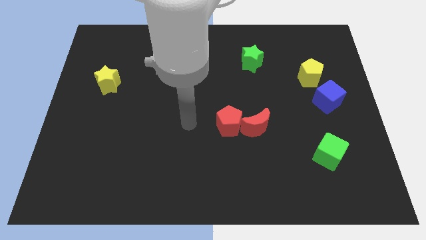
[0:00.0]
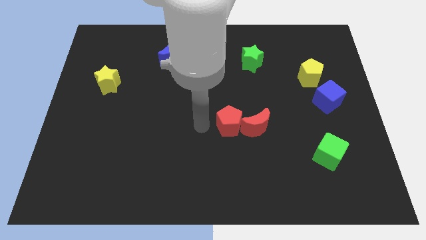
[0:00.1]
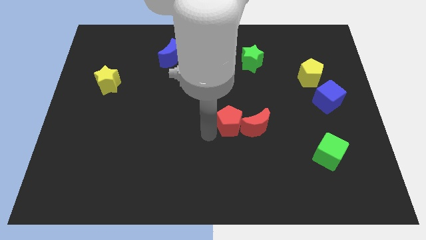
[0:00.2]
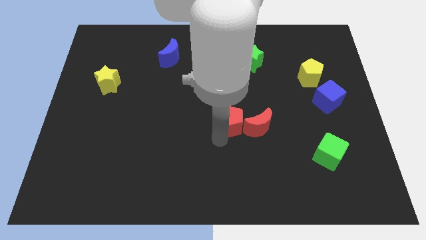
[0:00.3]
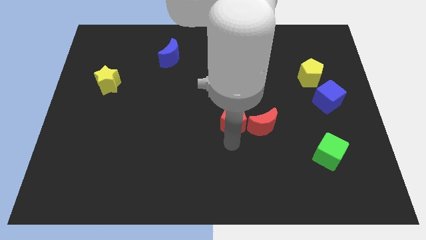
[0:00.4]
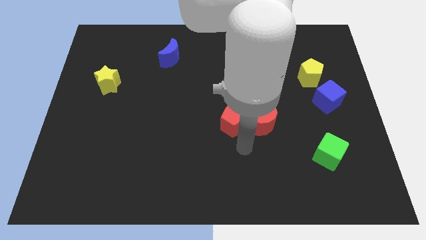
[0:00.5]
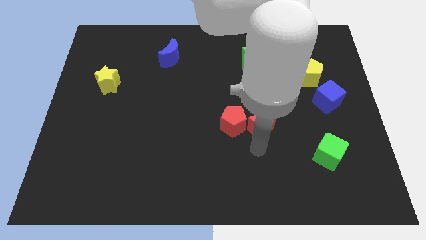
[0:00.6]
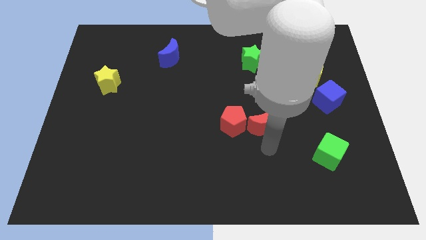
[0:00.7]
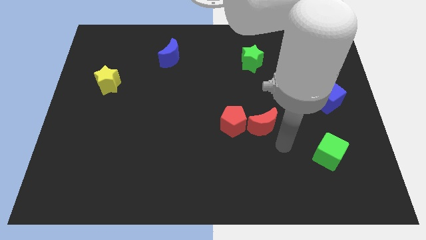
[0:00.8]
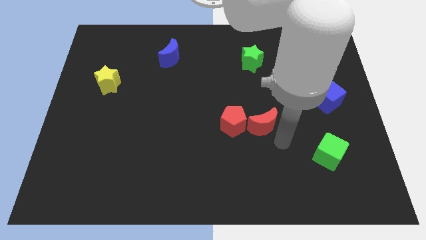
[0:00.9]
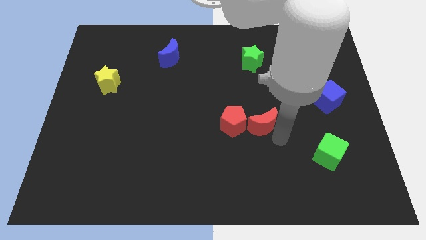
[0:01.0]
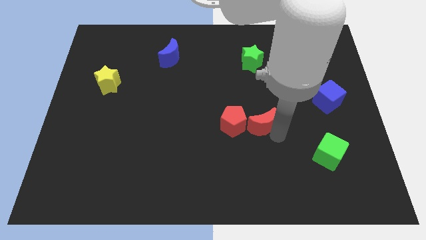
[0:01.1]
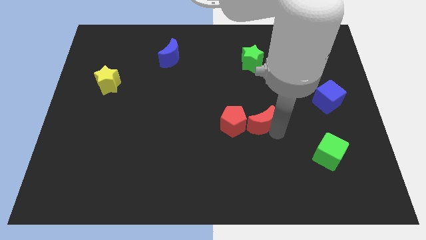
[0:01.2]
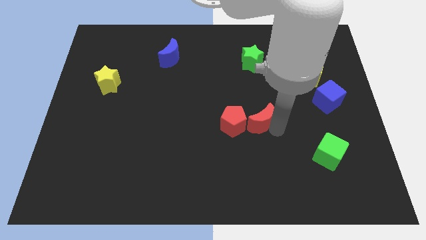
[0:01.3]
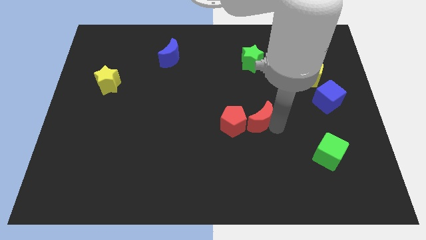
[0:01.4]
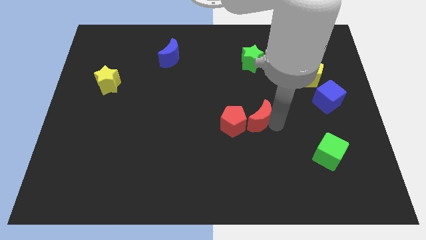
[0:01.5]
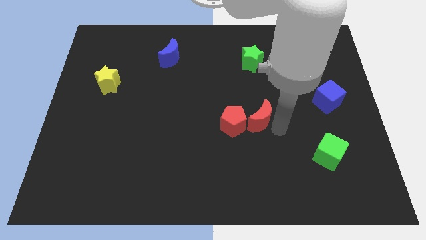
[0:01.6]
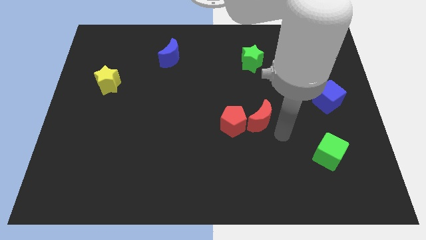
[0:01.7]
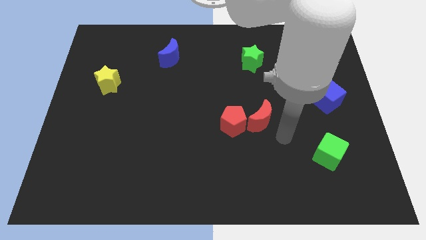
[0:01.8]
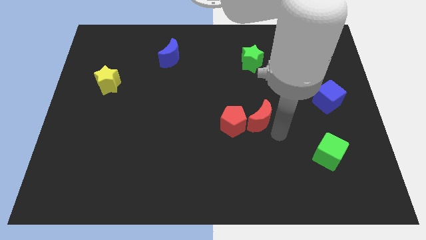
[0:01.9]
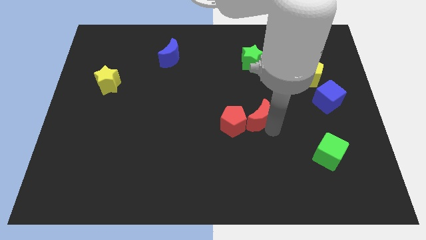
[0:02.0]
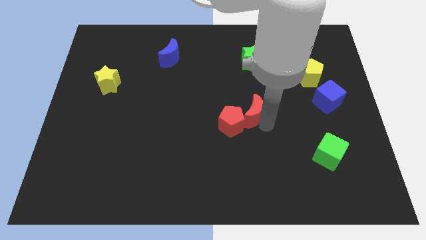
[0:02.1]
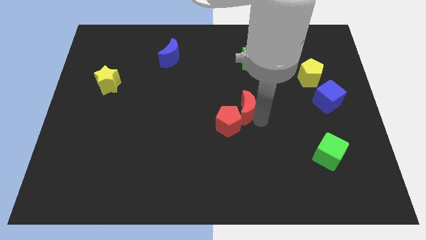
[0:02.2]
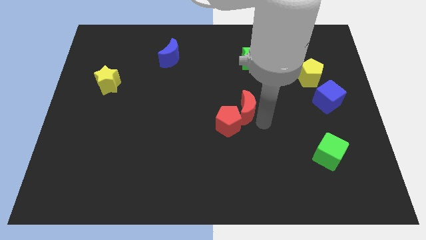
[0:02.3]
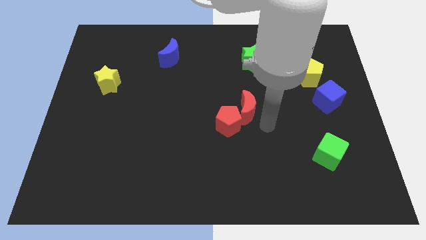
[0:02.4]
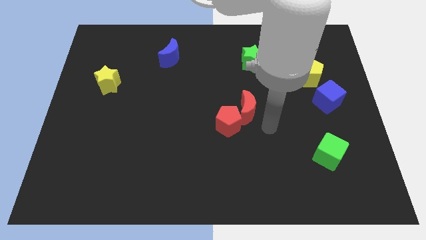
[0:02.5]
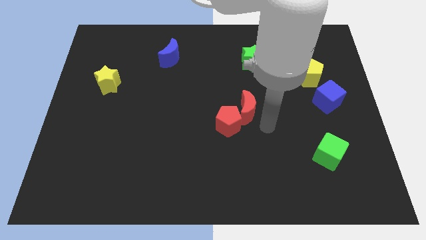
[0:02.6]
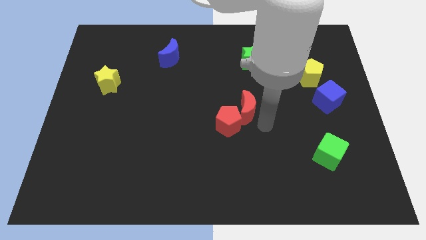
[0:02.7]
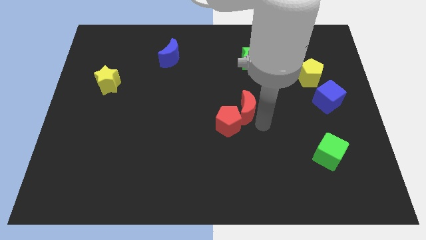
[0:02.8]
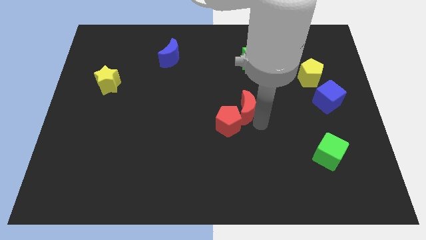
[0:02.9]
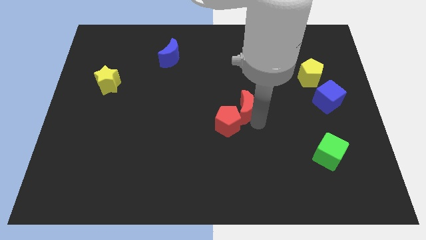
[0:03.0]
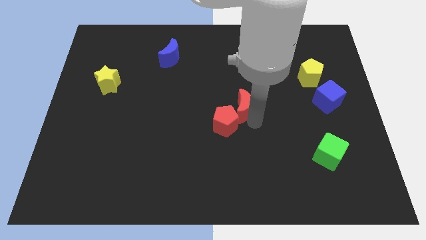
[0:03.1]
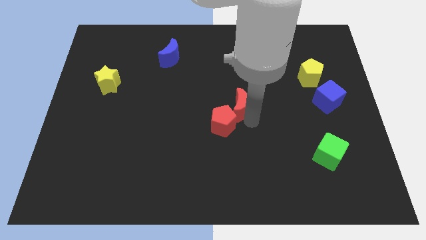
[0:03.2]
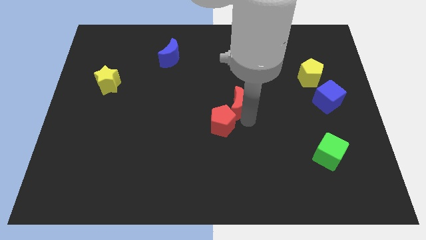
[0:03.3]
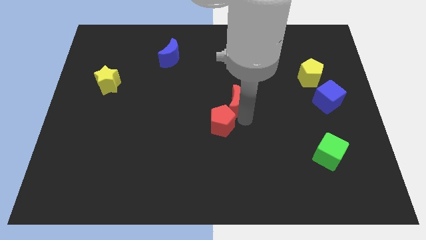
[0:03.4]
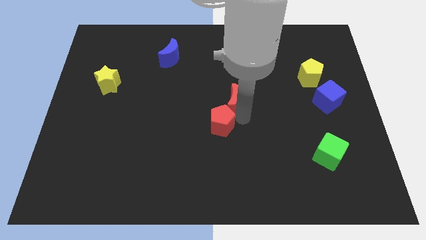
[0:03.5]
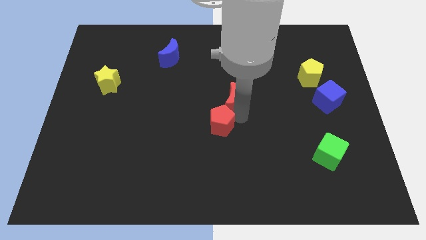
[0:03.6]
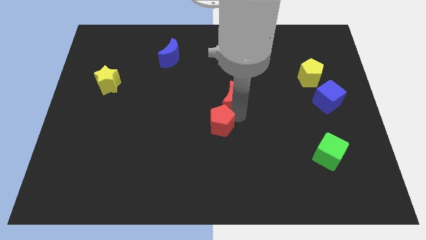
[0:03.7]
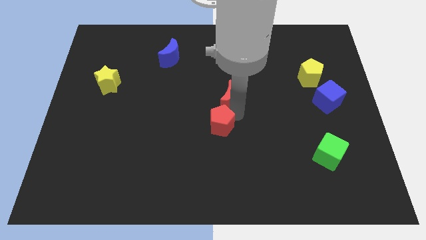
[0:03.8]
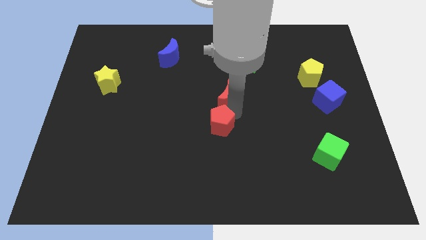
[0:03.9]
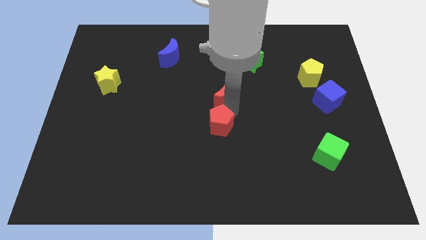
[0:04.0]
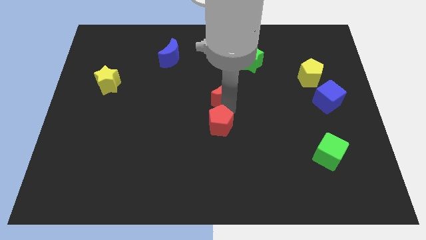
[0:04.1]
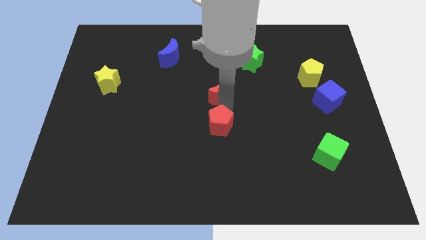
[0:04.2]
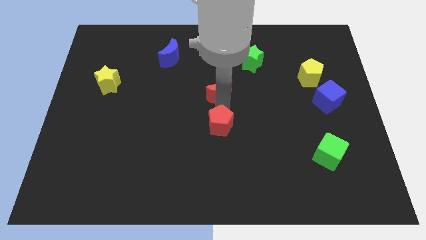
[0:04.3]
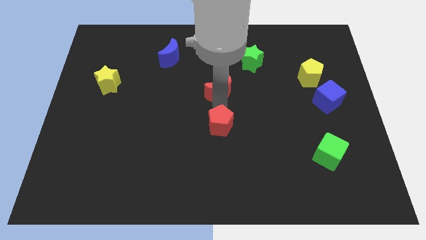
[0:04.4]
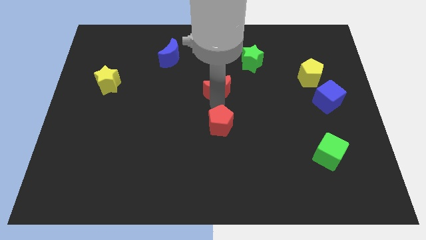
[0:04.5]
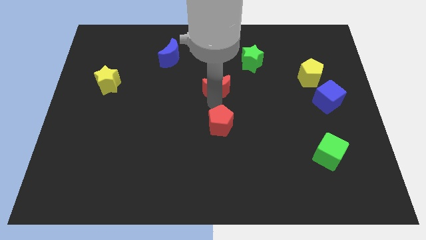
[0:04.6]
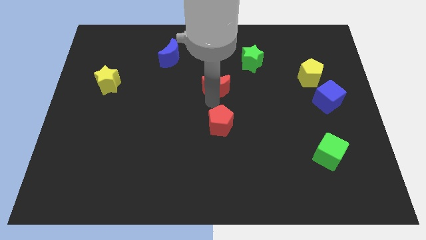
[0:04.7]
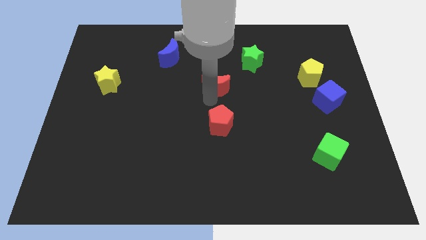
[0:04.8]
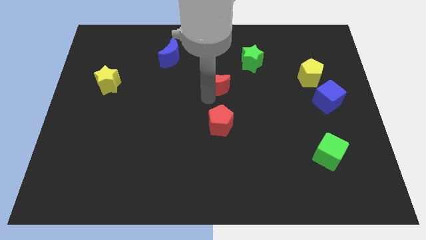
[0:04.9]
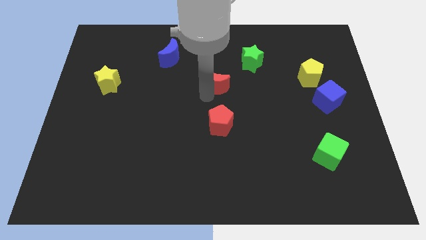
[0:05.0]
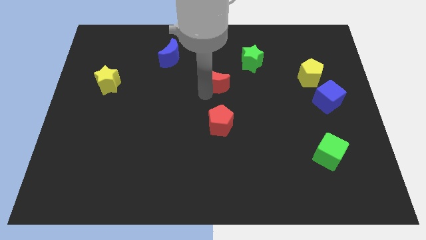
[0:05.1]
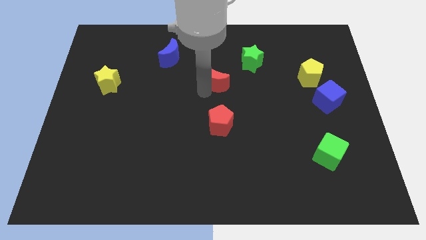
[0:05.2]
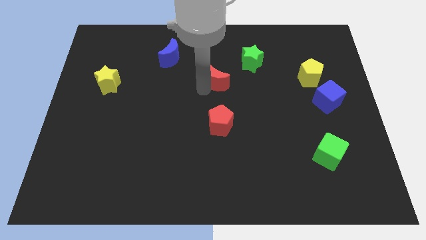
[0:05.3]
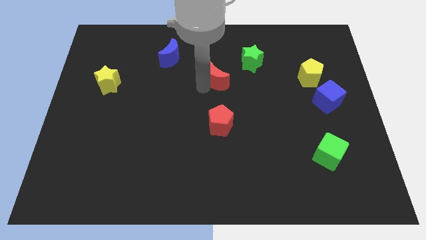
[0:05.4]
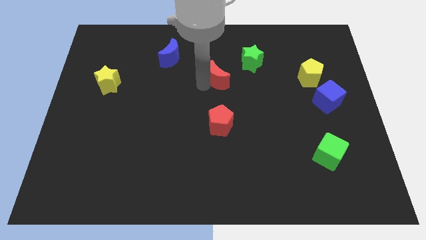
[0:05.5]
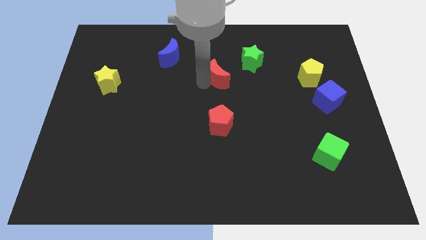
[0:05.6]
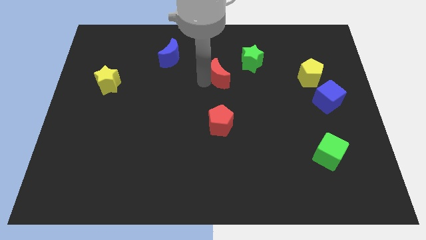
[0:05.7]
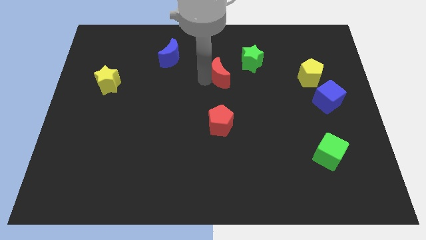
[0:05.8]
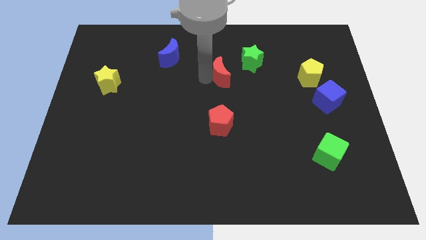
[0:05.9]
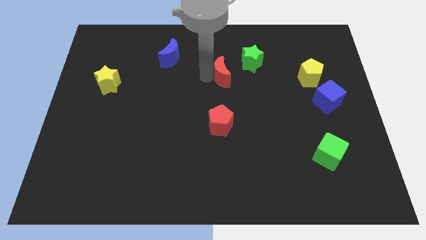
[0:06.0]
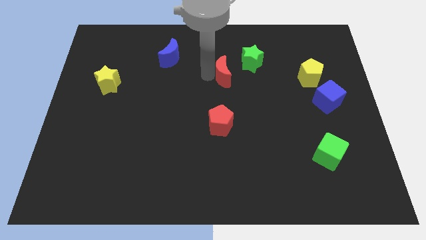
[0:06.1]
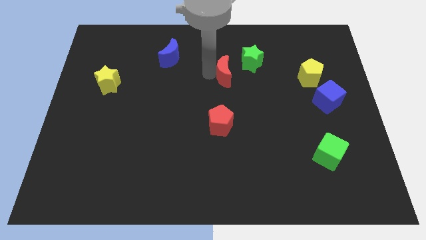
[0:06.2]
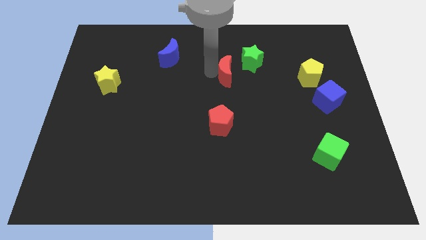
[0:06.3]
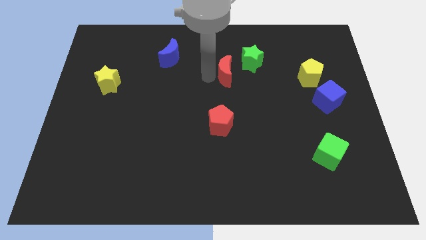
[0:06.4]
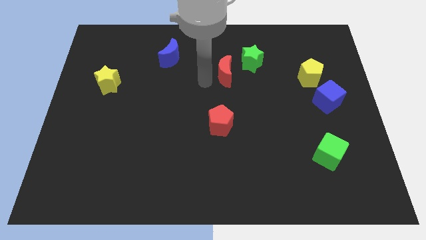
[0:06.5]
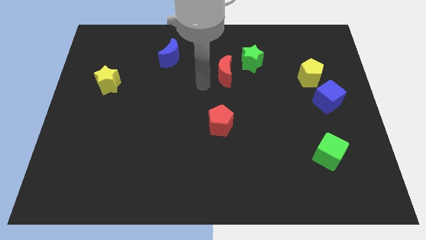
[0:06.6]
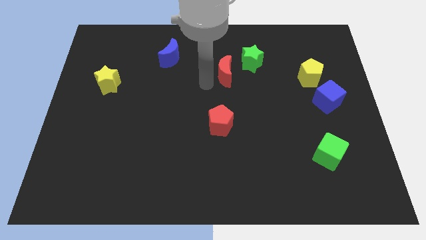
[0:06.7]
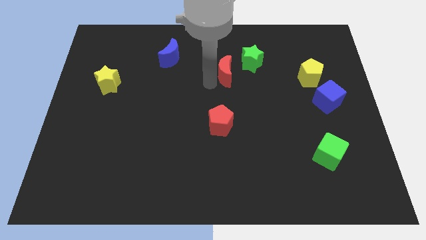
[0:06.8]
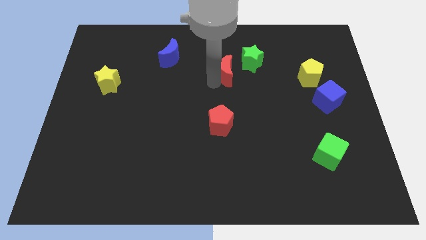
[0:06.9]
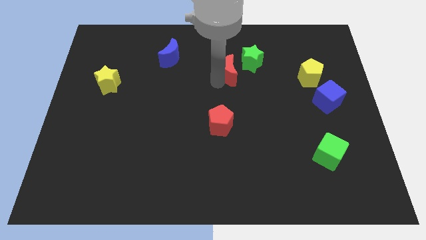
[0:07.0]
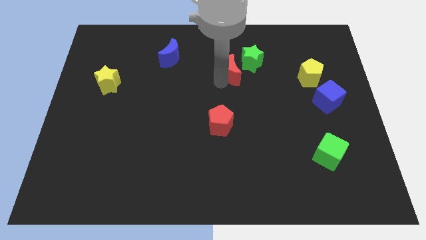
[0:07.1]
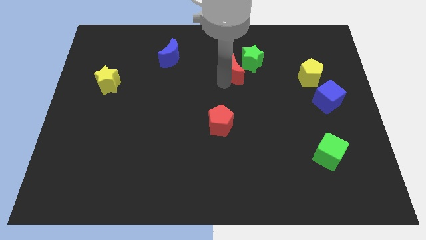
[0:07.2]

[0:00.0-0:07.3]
push the red moon to the green star
